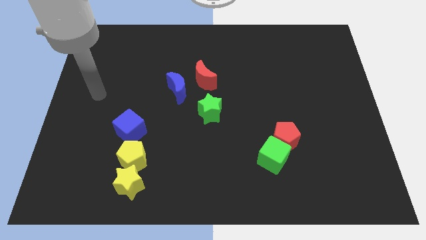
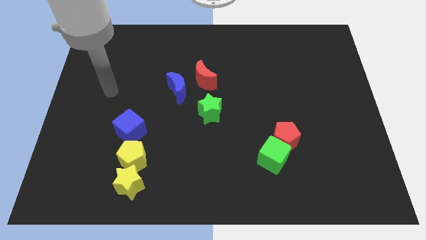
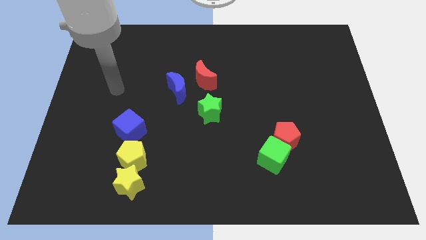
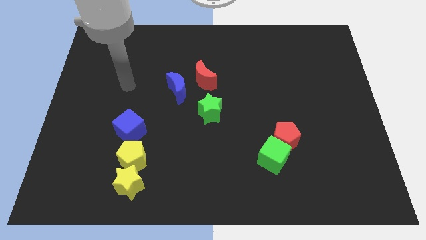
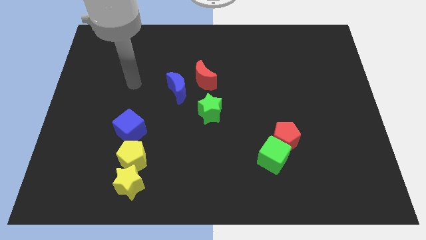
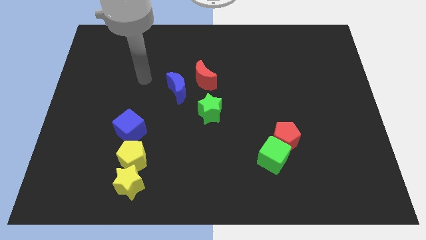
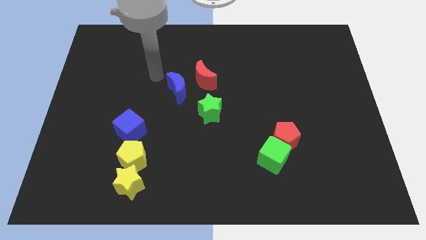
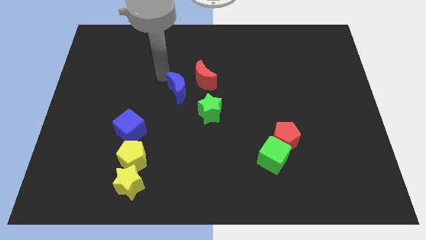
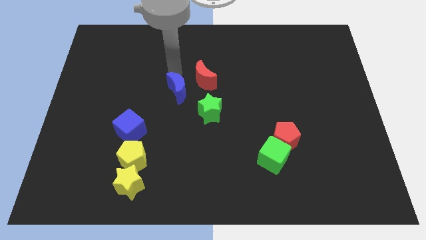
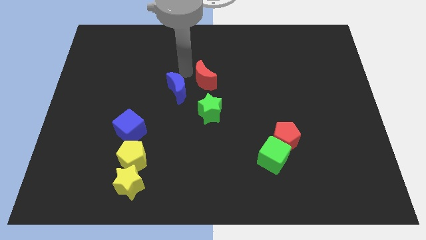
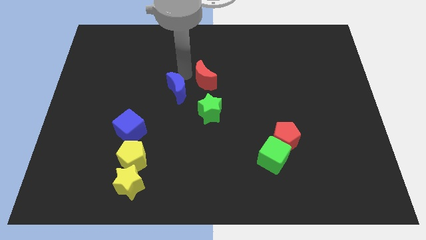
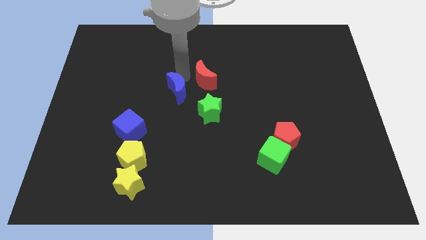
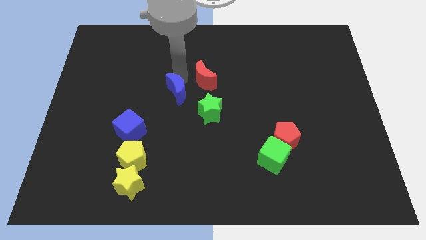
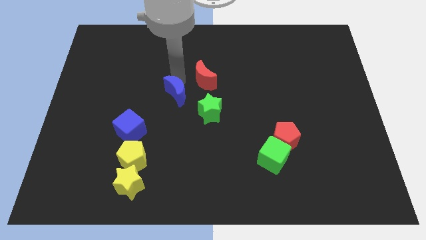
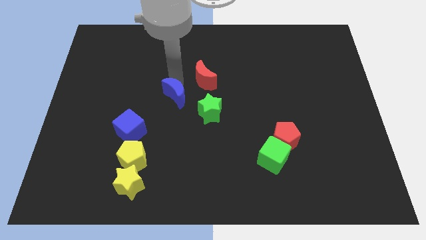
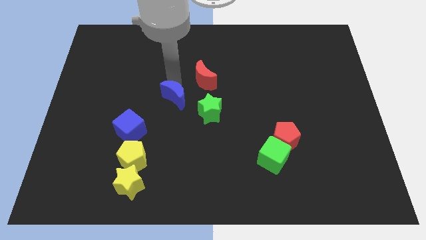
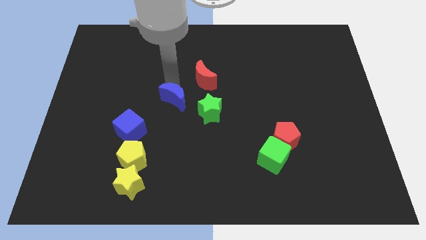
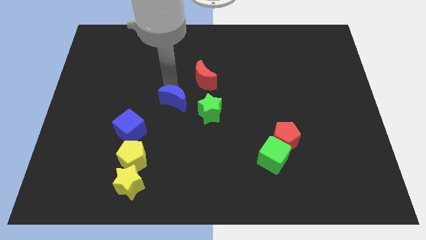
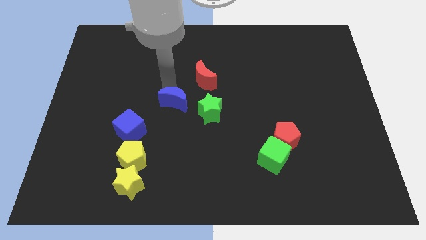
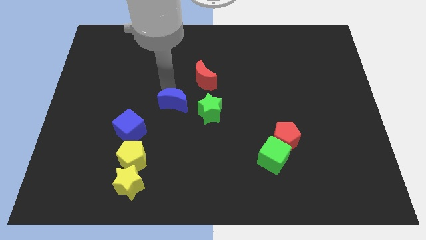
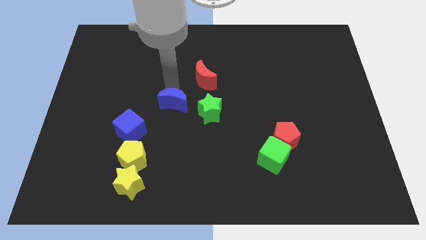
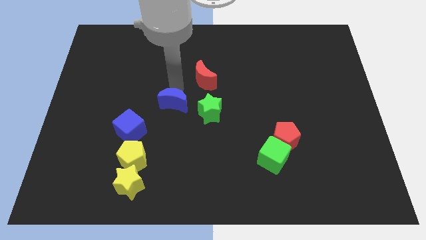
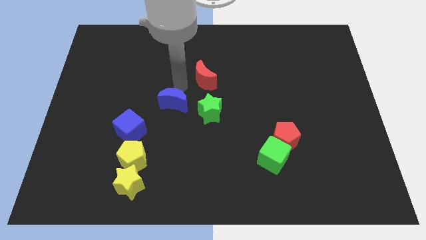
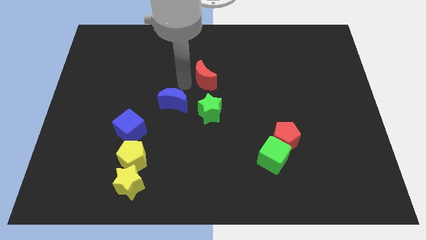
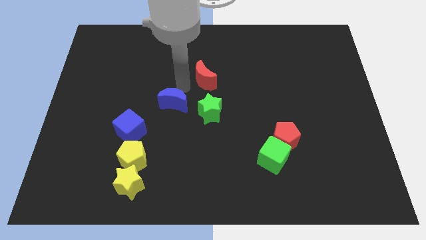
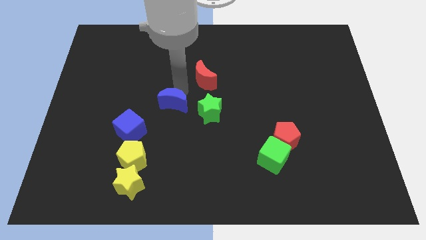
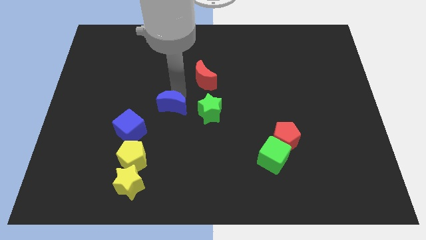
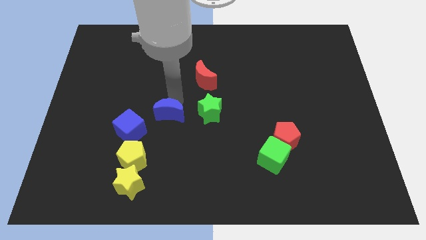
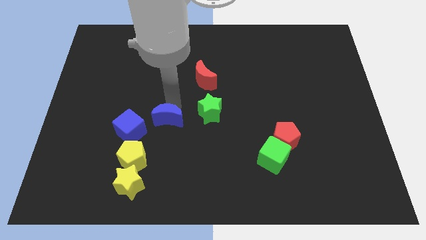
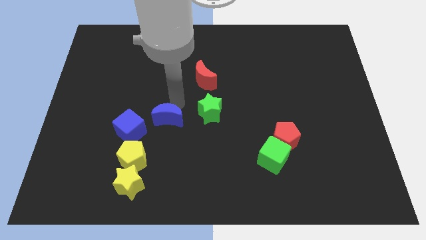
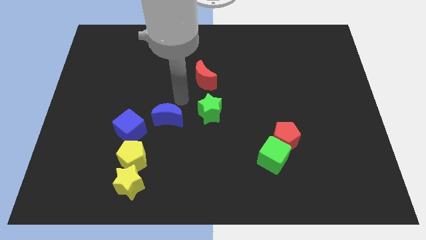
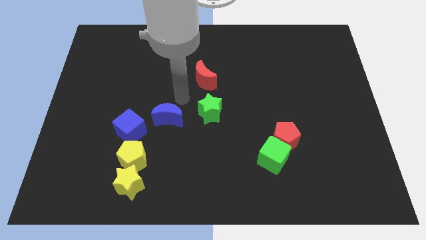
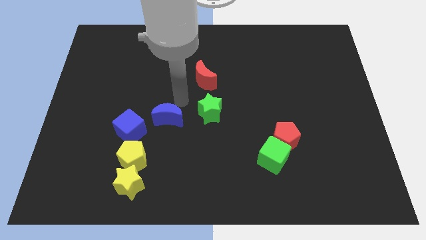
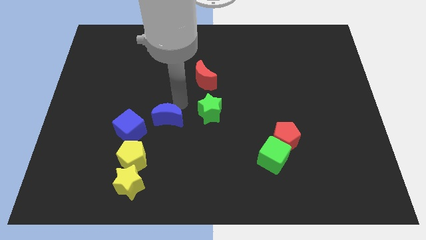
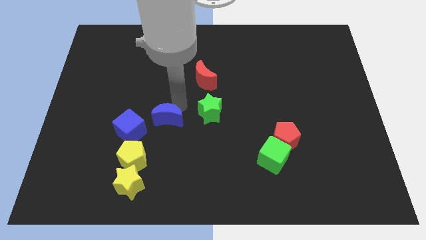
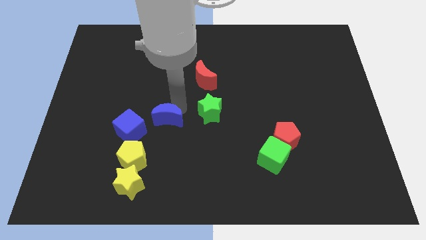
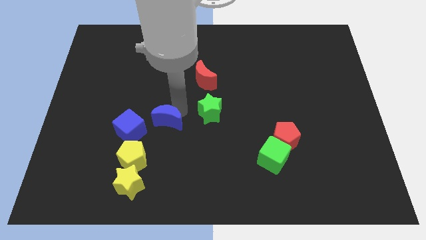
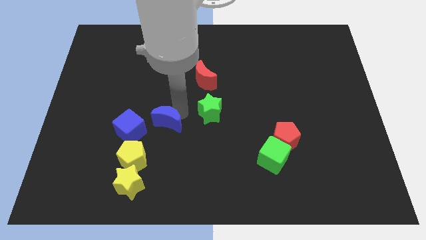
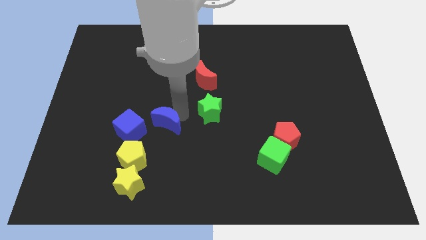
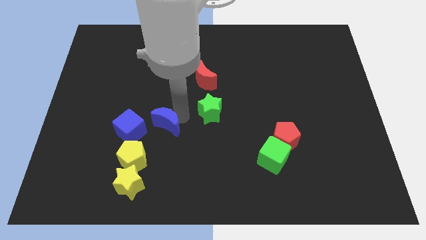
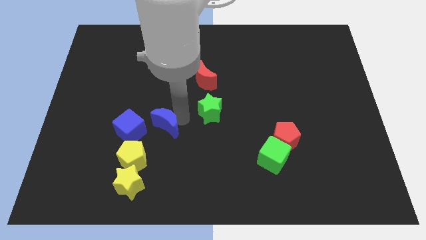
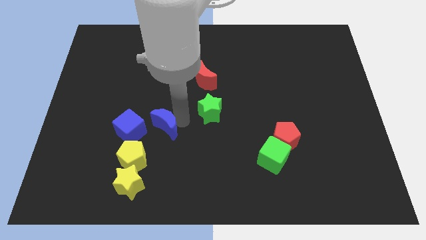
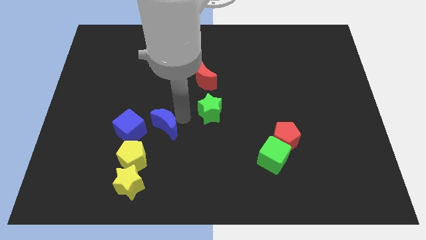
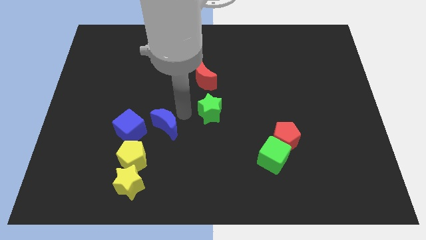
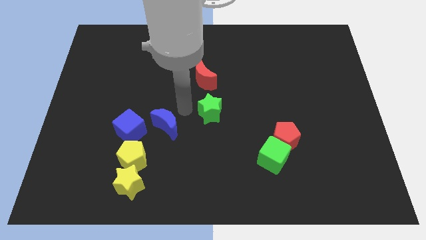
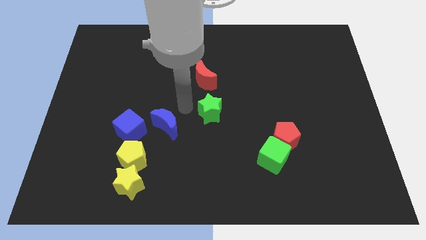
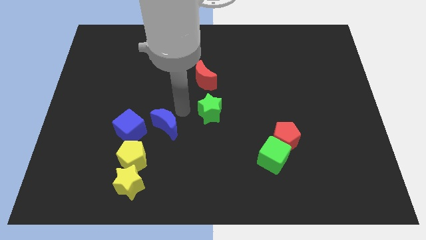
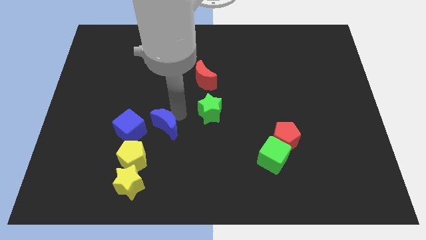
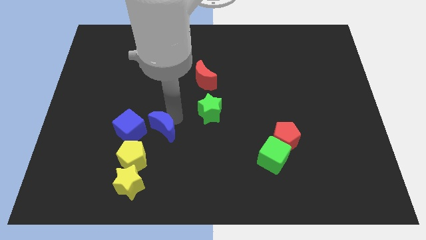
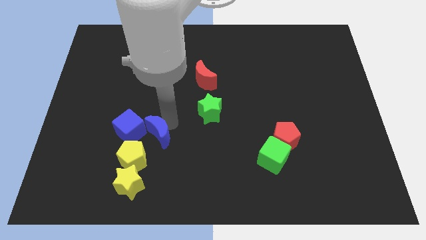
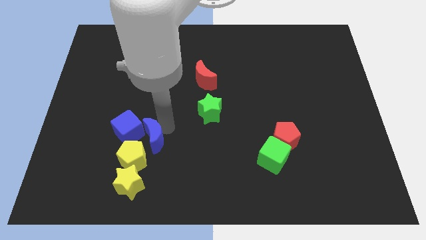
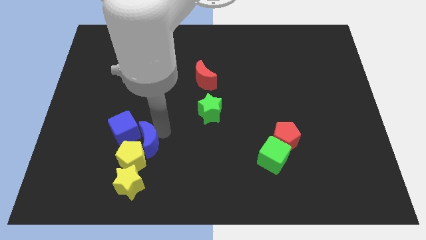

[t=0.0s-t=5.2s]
slide the blue moon next to the yellow pentagon

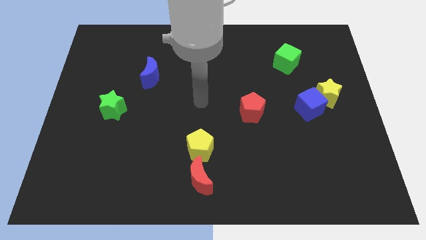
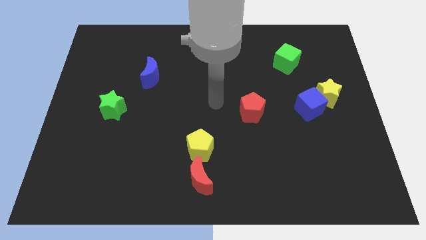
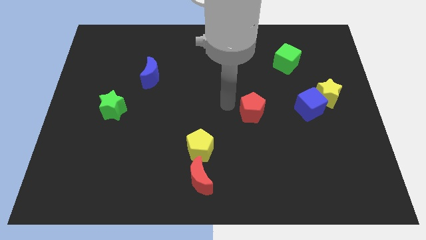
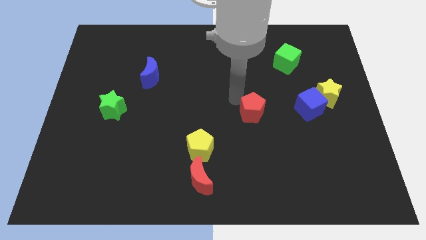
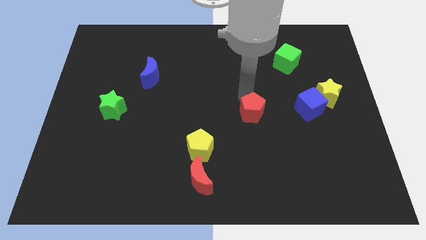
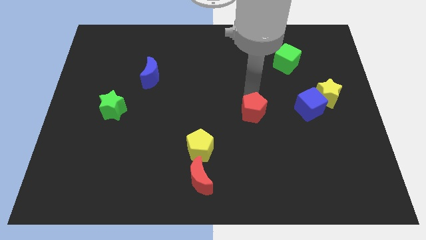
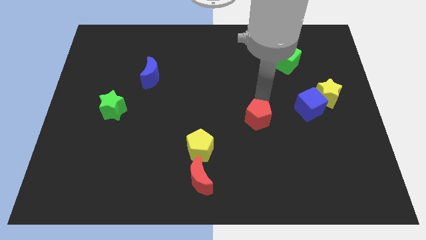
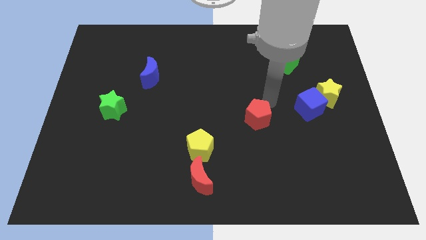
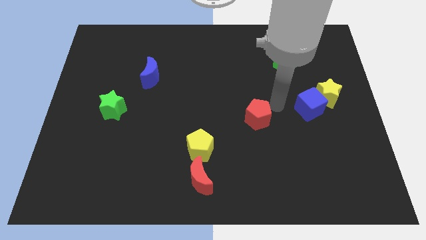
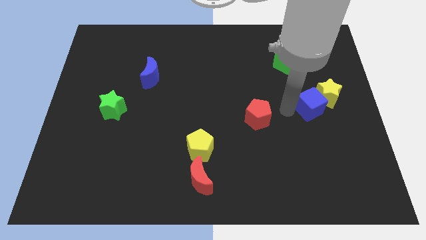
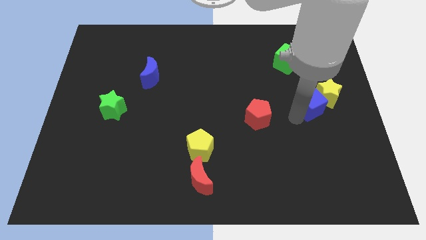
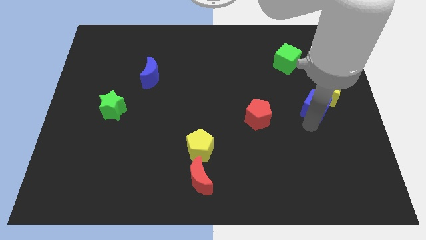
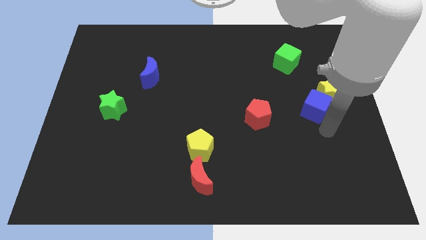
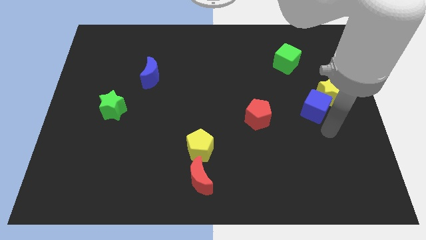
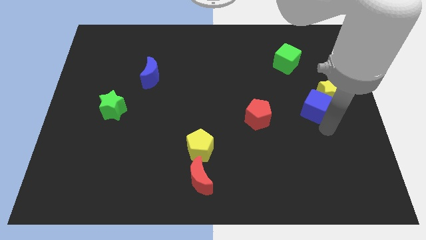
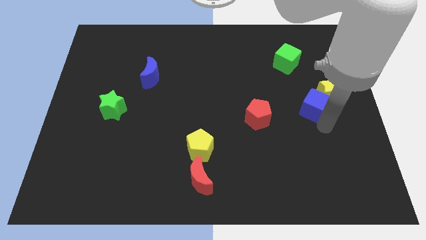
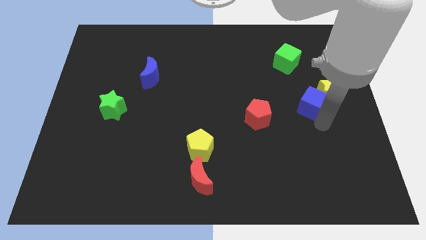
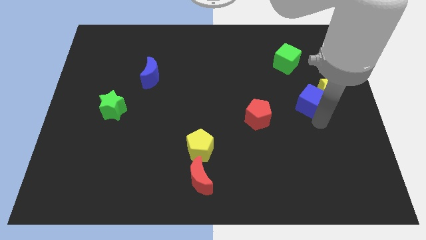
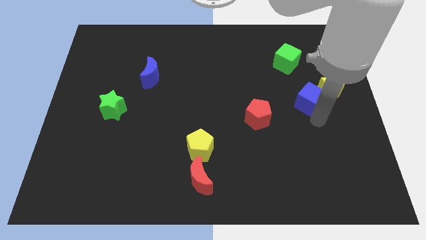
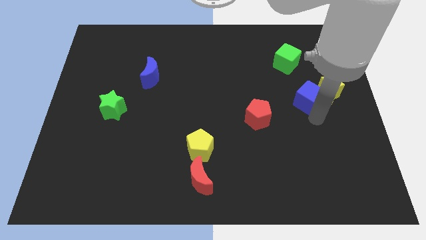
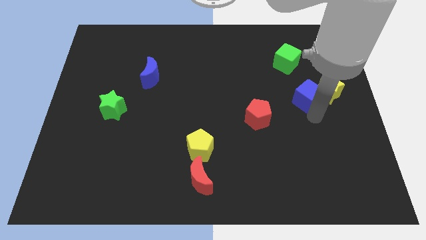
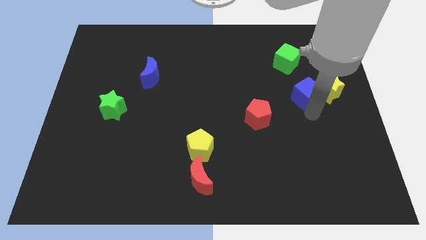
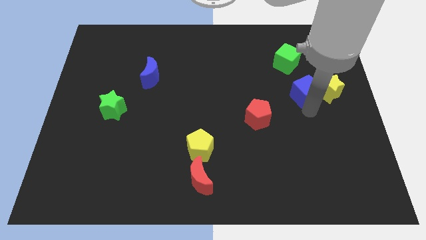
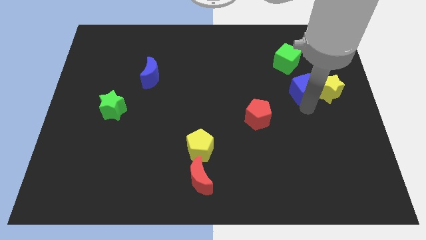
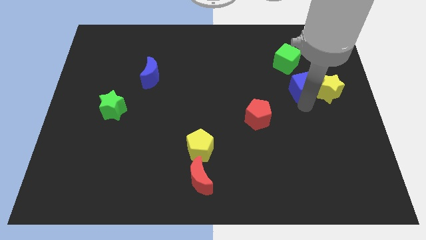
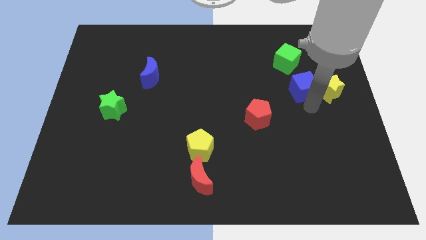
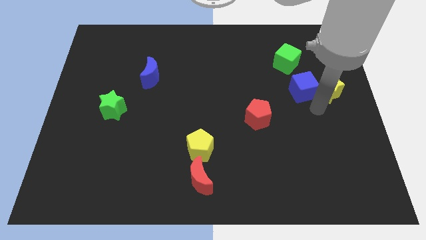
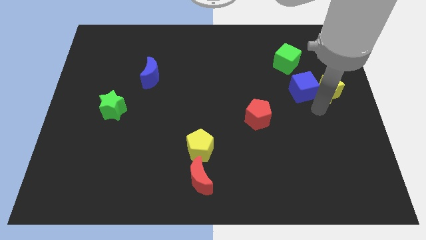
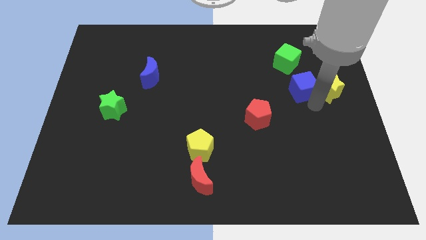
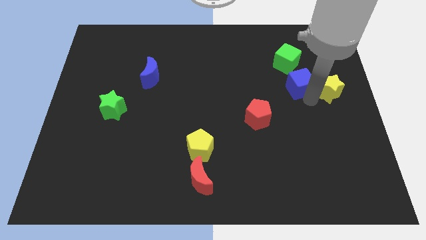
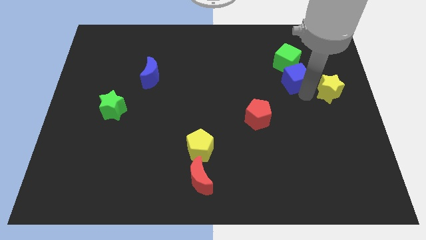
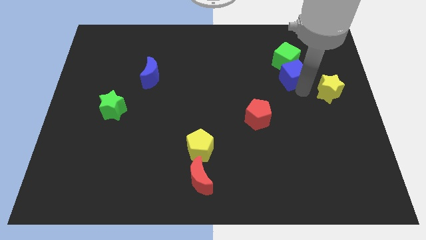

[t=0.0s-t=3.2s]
slide the blue cube towards the green cube
